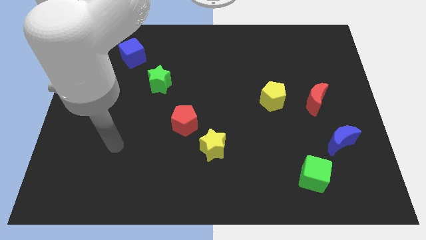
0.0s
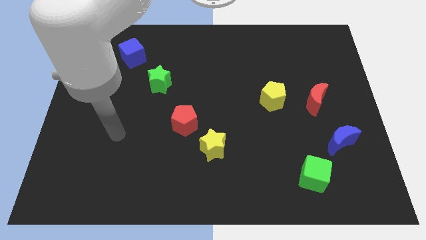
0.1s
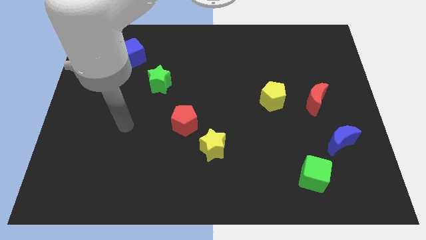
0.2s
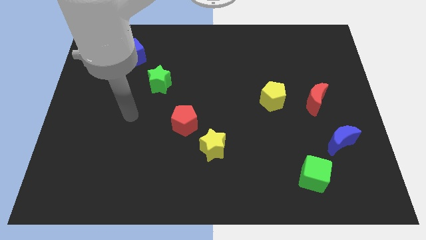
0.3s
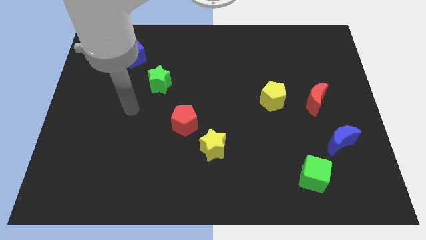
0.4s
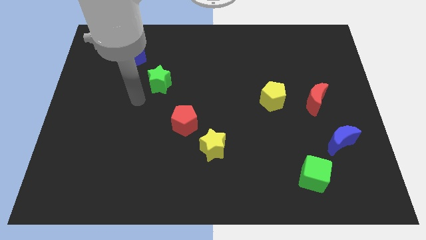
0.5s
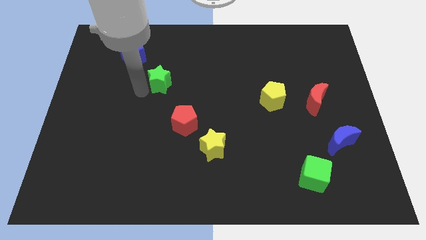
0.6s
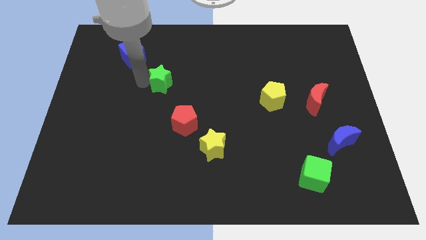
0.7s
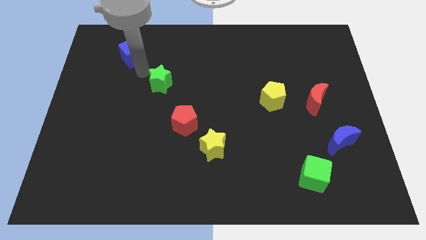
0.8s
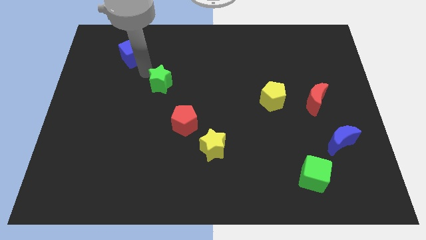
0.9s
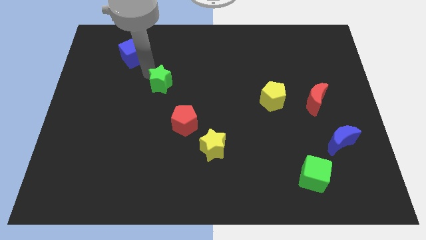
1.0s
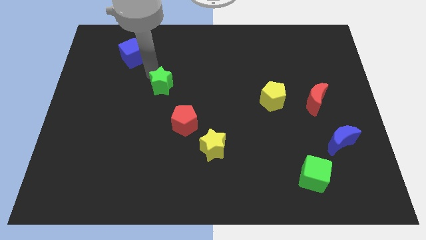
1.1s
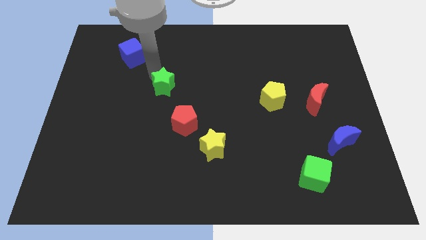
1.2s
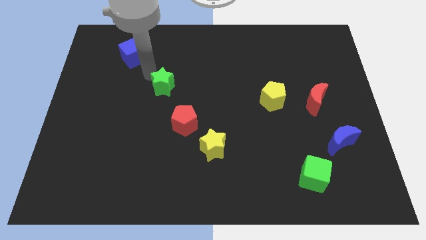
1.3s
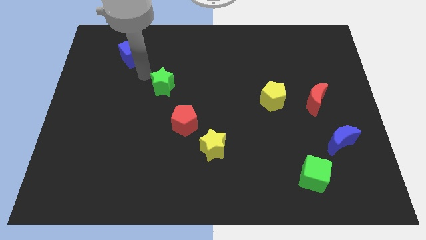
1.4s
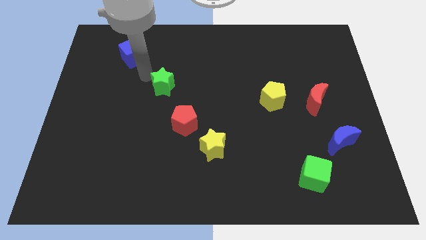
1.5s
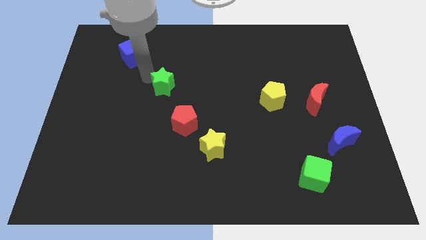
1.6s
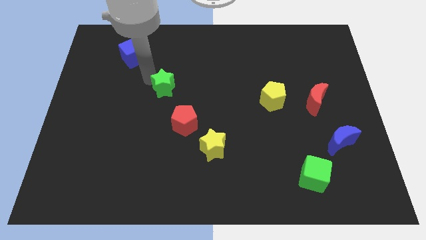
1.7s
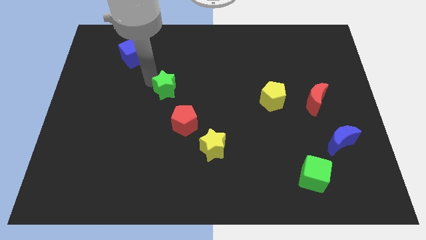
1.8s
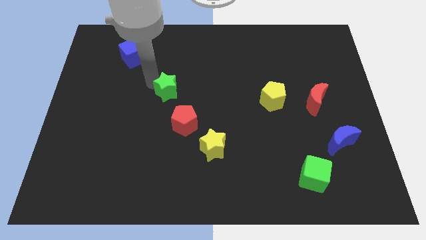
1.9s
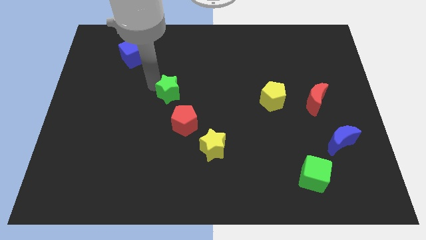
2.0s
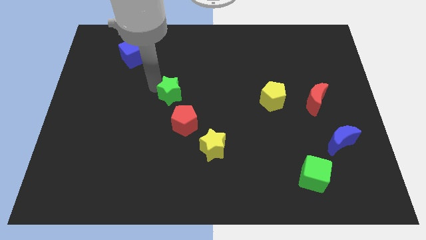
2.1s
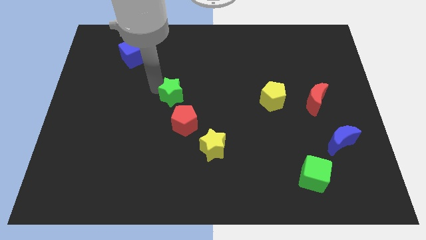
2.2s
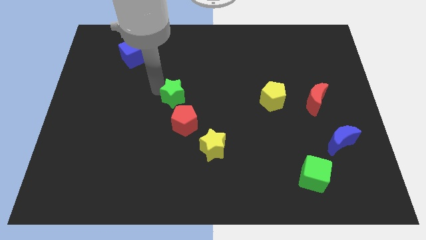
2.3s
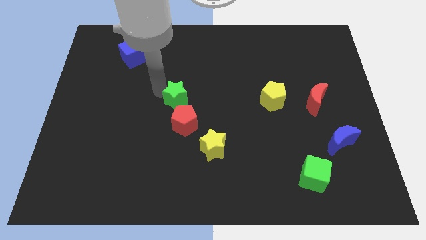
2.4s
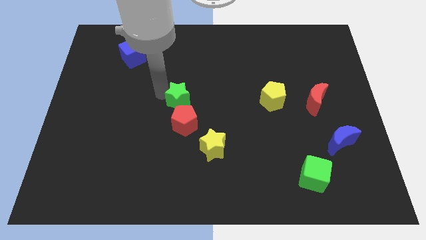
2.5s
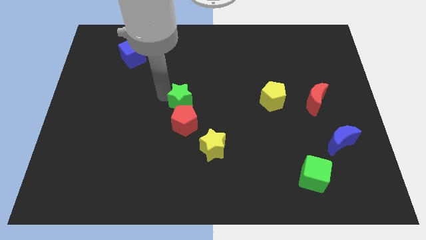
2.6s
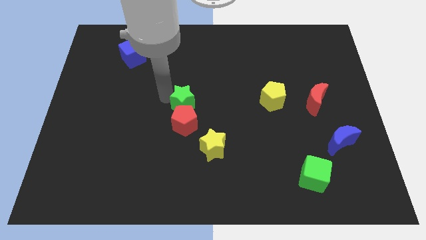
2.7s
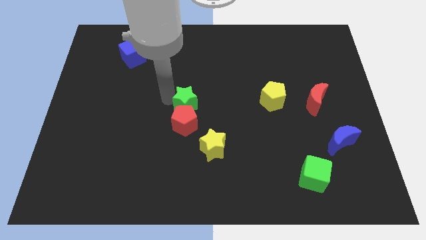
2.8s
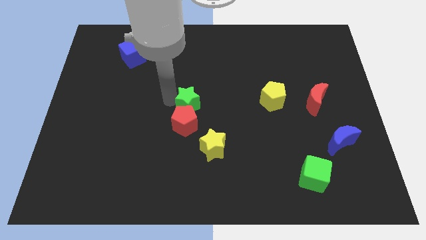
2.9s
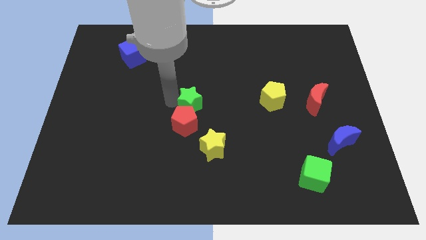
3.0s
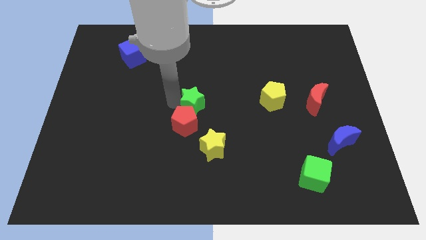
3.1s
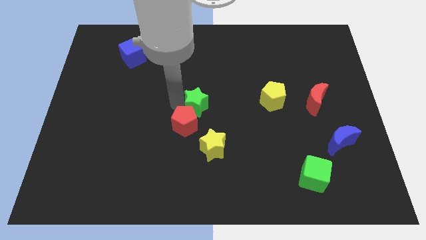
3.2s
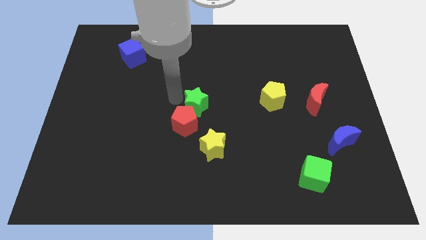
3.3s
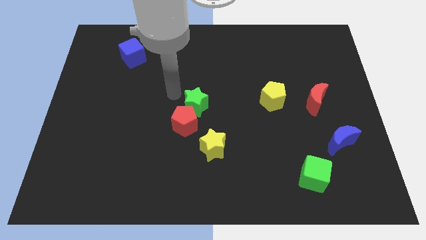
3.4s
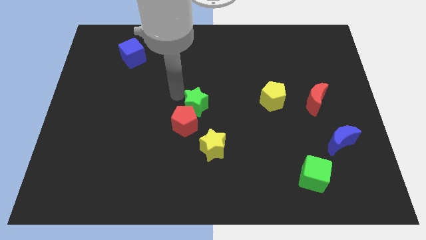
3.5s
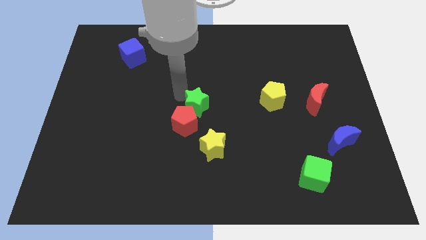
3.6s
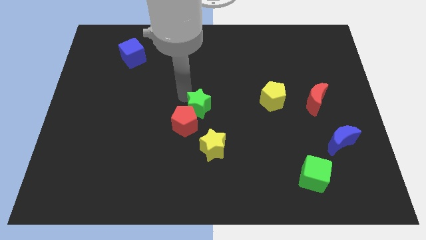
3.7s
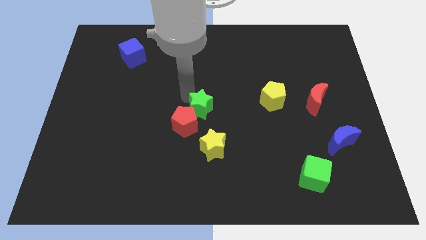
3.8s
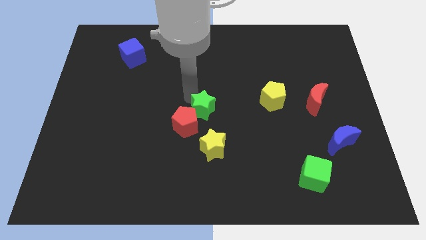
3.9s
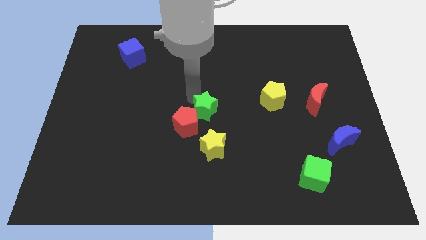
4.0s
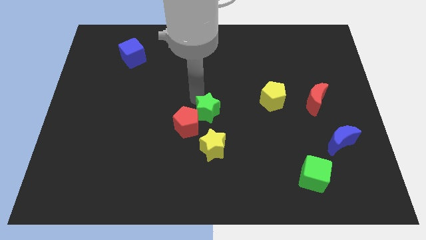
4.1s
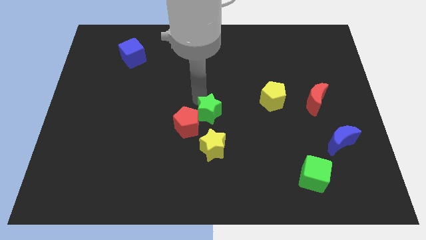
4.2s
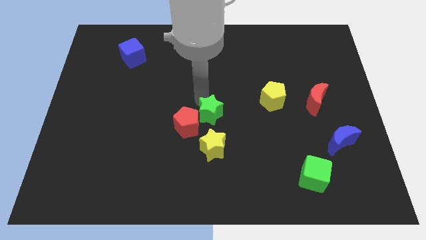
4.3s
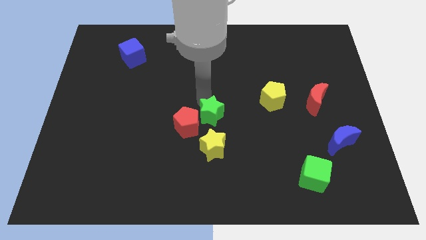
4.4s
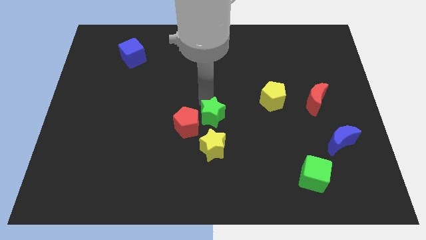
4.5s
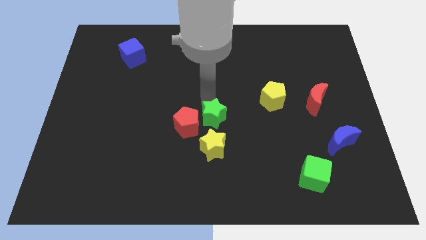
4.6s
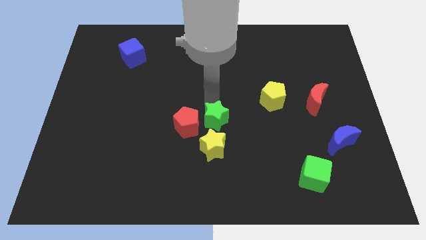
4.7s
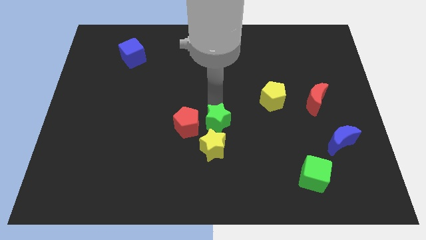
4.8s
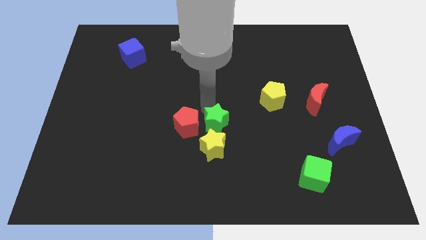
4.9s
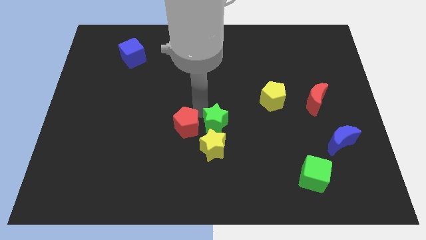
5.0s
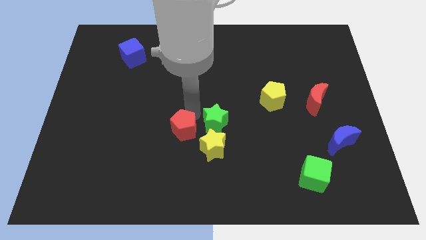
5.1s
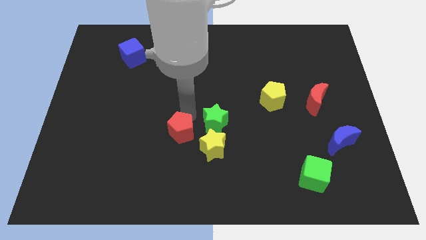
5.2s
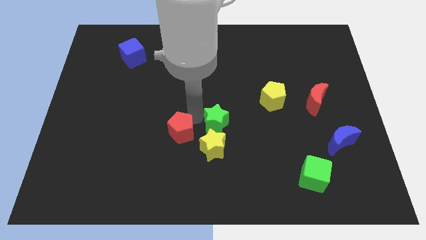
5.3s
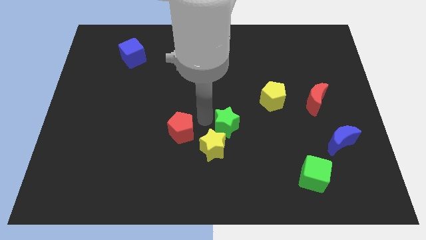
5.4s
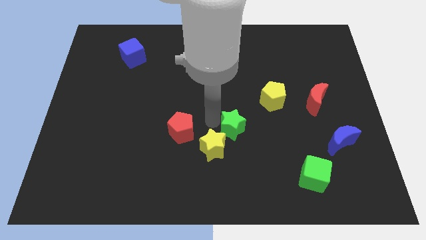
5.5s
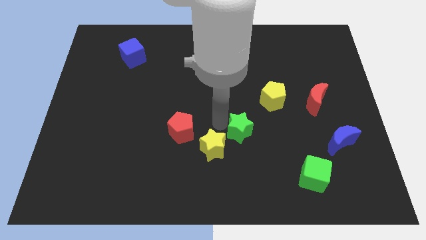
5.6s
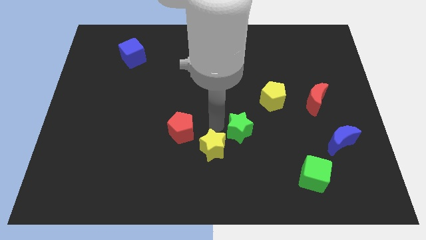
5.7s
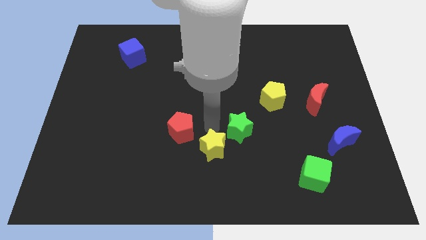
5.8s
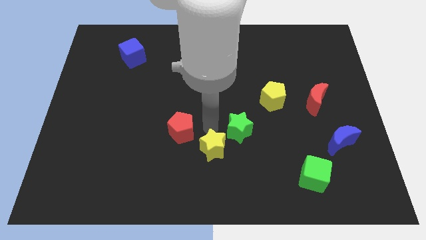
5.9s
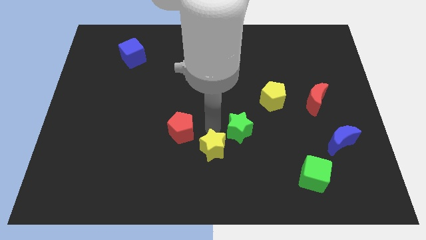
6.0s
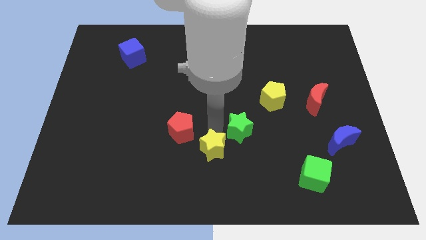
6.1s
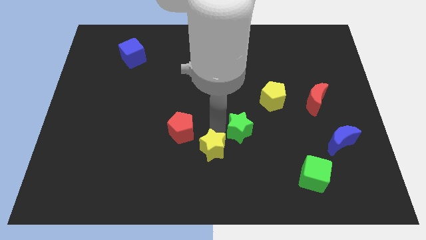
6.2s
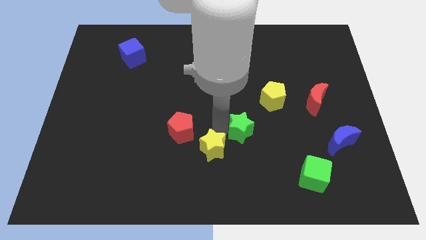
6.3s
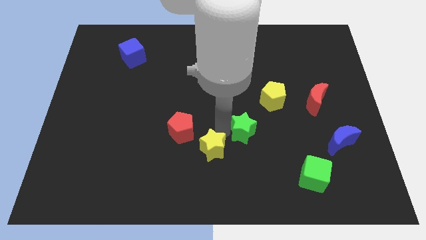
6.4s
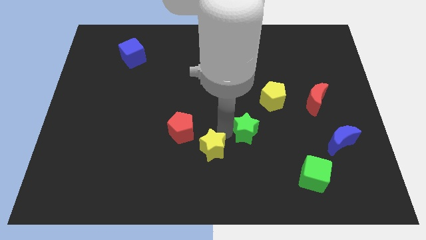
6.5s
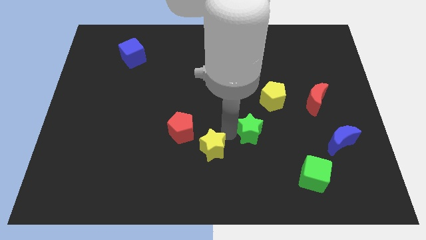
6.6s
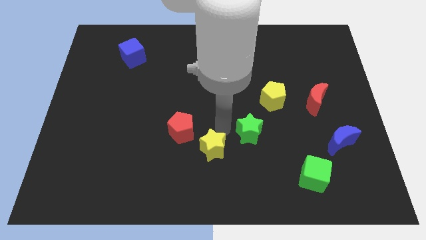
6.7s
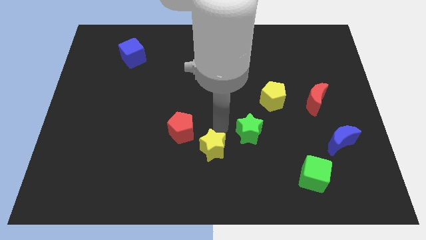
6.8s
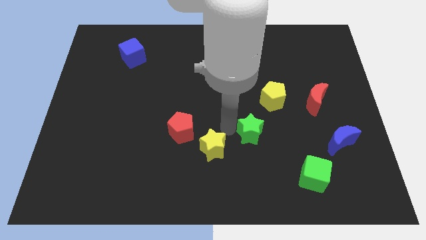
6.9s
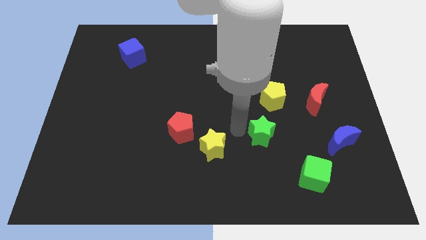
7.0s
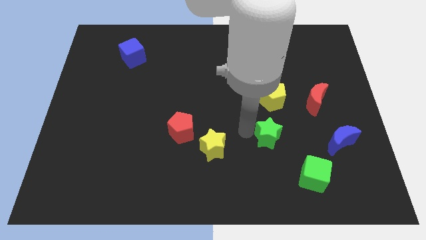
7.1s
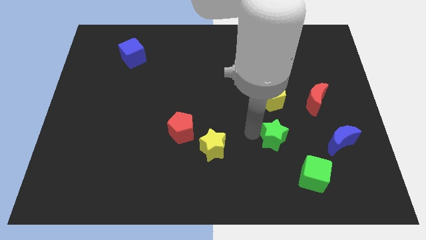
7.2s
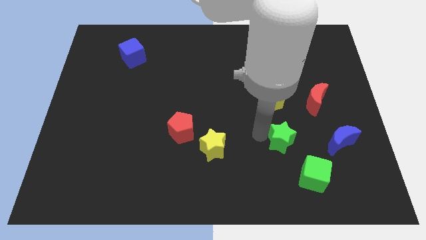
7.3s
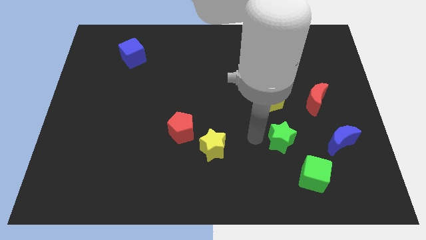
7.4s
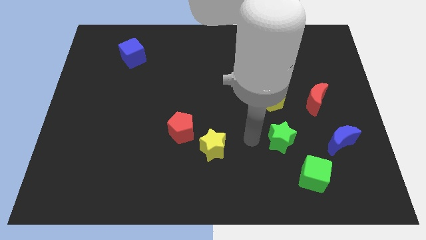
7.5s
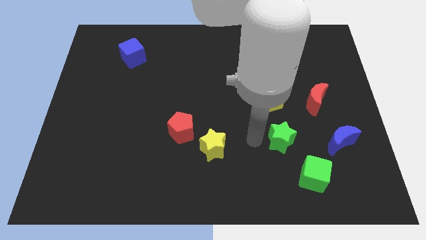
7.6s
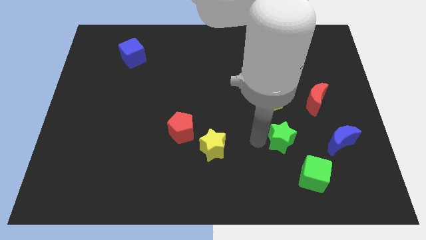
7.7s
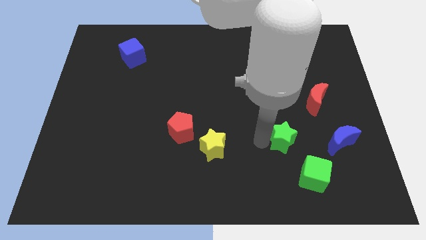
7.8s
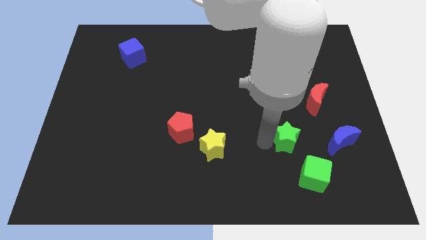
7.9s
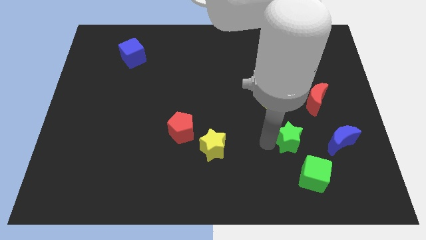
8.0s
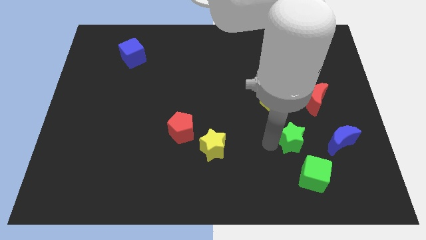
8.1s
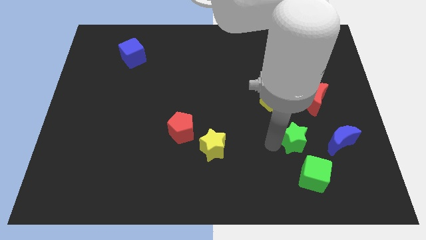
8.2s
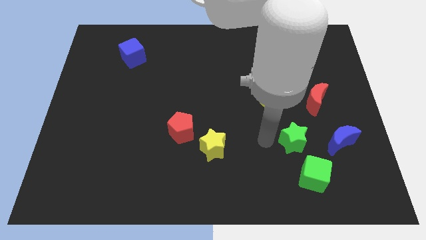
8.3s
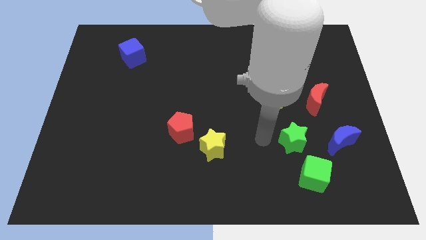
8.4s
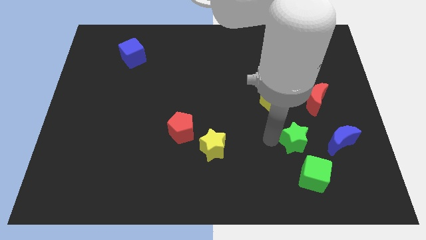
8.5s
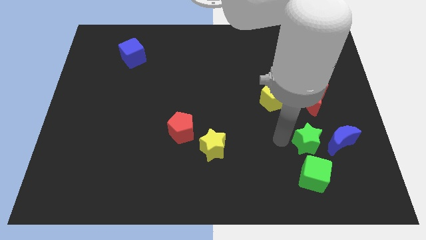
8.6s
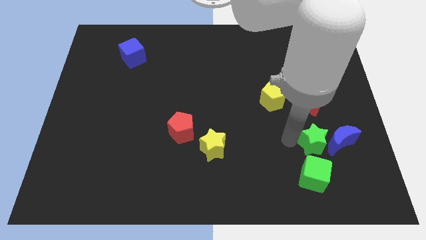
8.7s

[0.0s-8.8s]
push the green star to the blue moon
